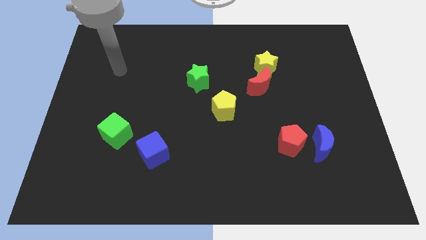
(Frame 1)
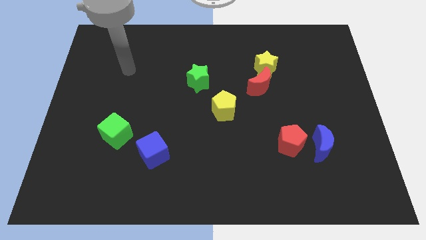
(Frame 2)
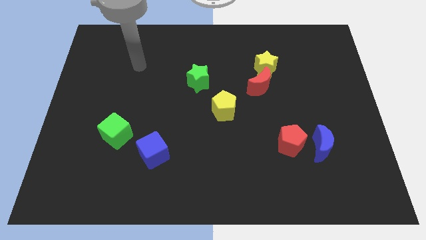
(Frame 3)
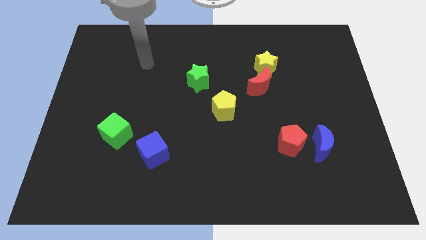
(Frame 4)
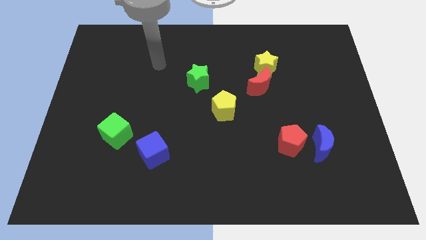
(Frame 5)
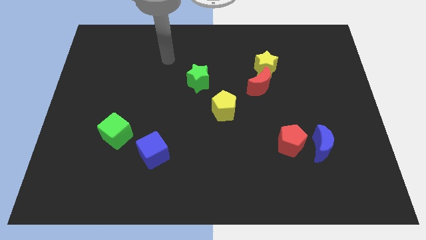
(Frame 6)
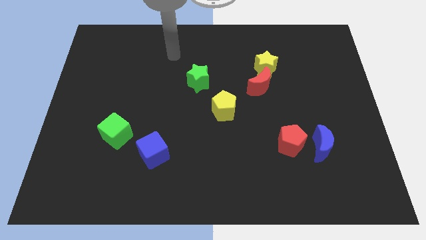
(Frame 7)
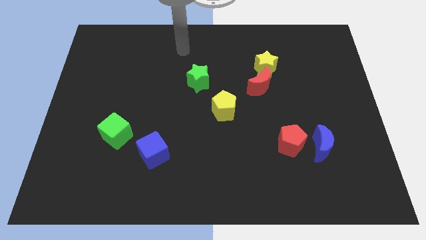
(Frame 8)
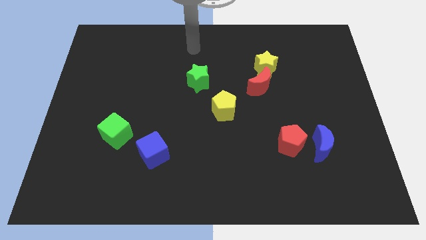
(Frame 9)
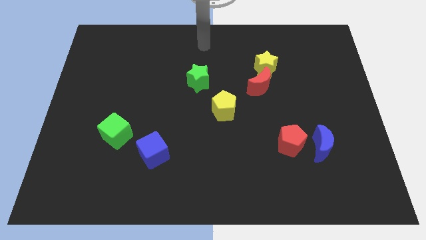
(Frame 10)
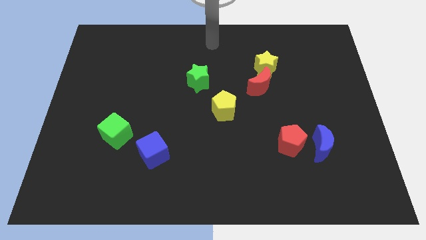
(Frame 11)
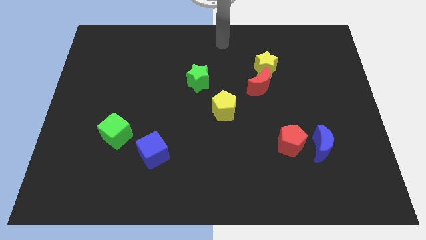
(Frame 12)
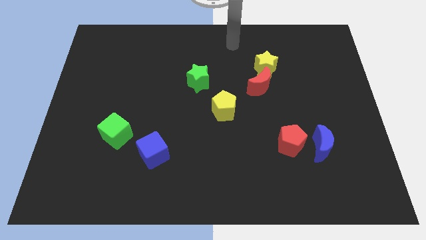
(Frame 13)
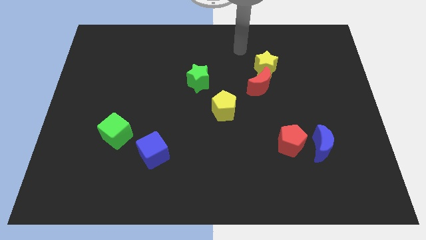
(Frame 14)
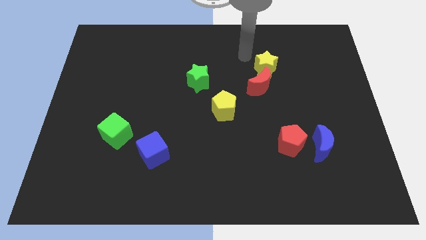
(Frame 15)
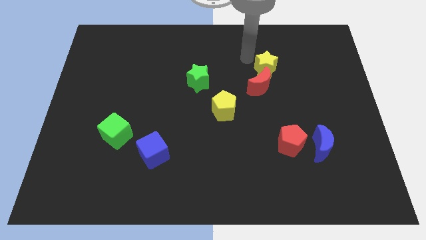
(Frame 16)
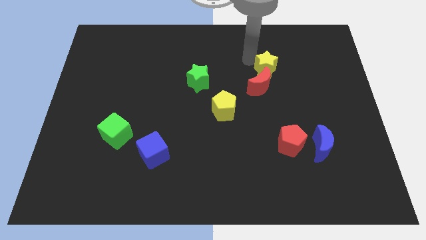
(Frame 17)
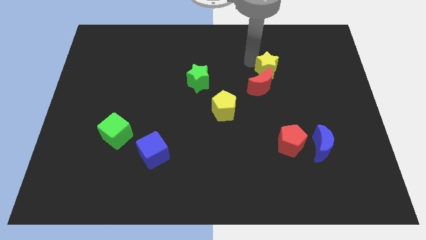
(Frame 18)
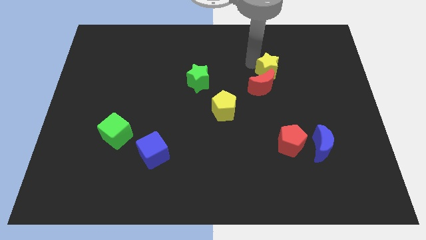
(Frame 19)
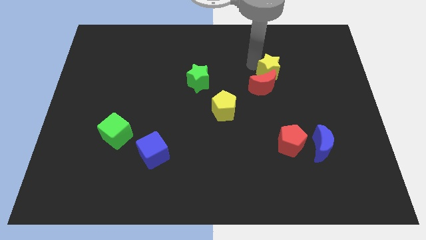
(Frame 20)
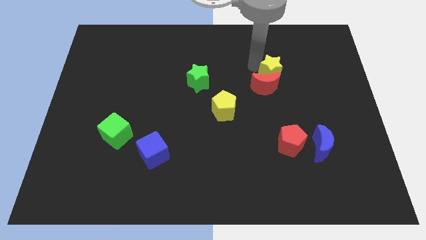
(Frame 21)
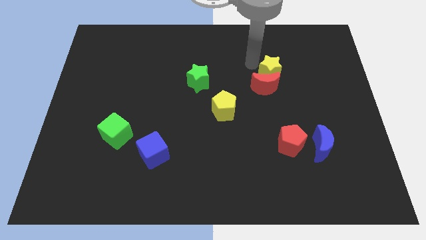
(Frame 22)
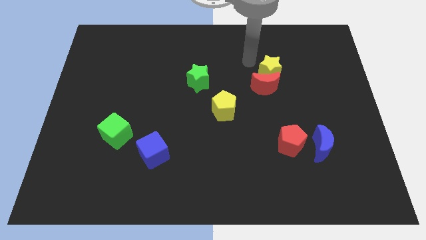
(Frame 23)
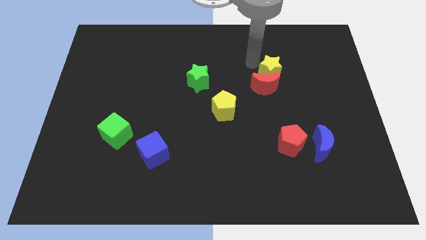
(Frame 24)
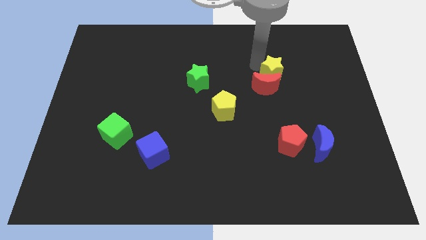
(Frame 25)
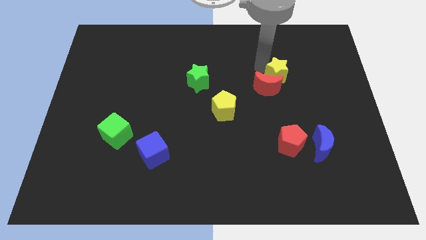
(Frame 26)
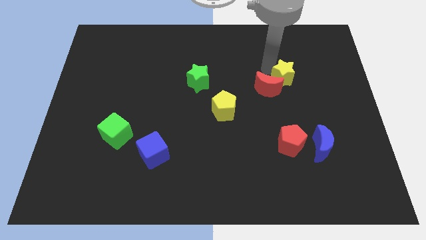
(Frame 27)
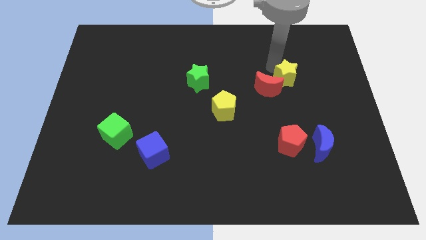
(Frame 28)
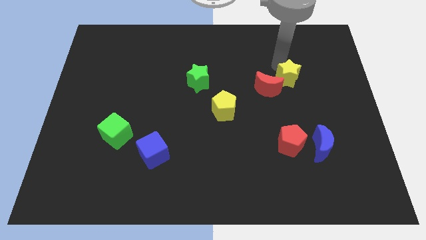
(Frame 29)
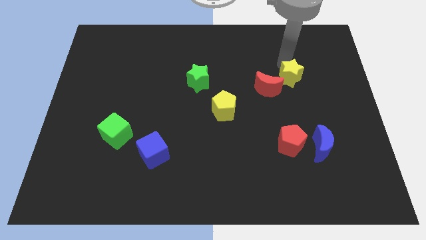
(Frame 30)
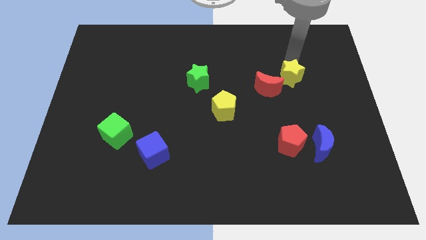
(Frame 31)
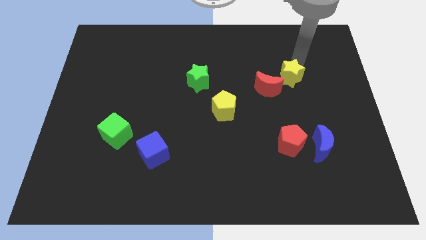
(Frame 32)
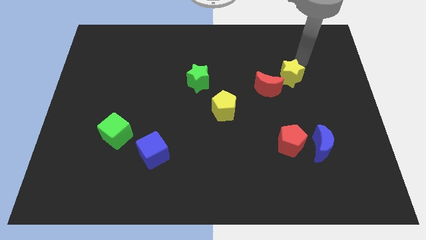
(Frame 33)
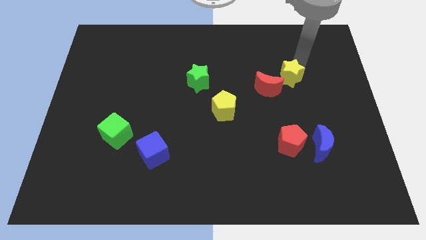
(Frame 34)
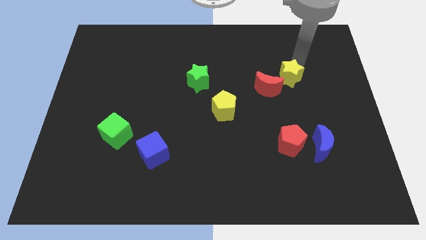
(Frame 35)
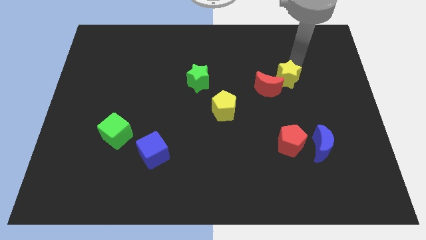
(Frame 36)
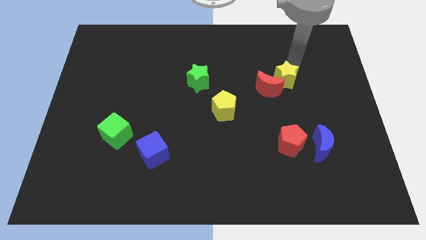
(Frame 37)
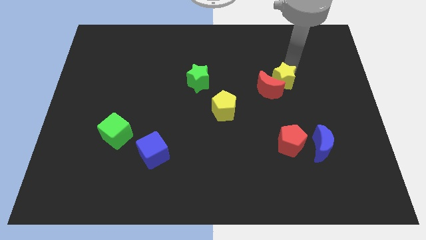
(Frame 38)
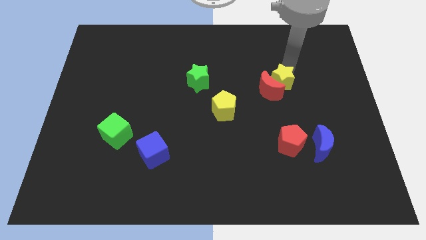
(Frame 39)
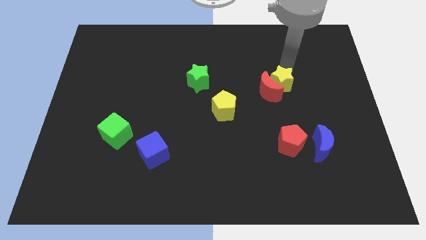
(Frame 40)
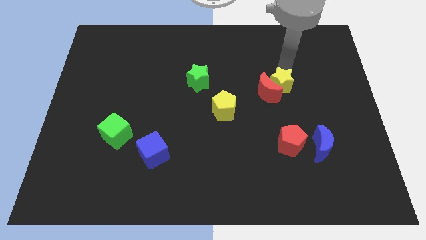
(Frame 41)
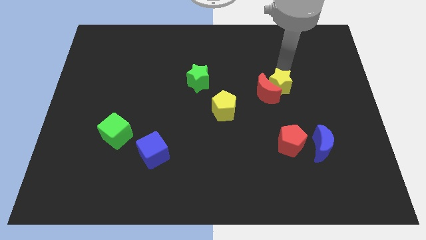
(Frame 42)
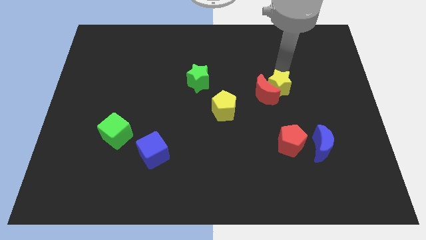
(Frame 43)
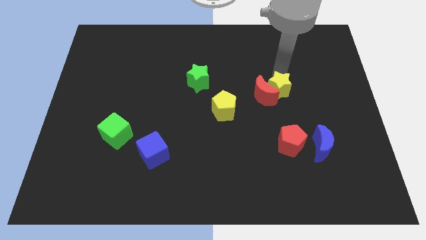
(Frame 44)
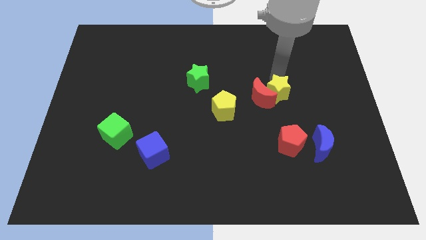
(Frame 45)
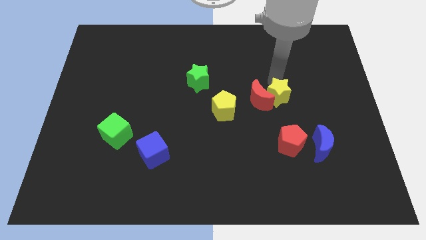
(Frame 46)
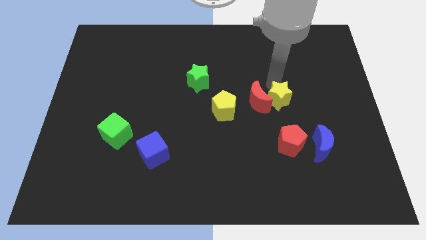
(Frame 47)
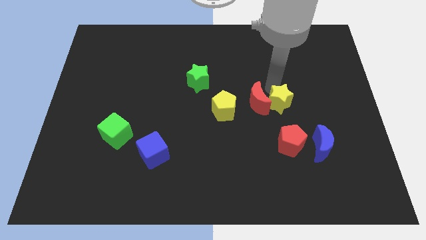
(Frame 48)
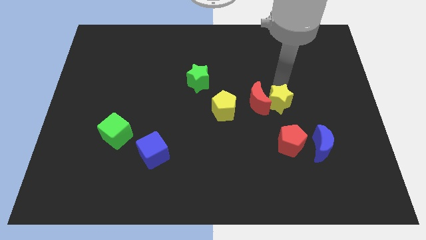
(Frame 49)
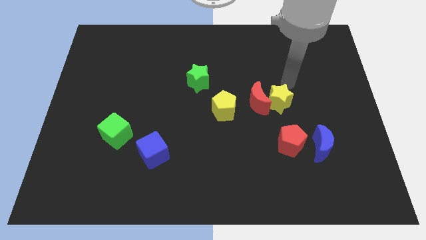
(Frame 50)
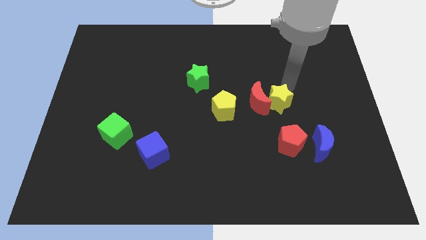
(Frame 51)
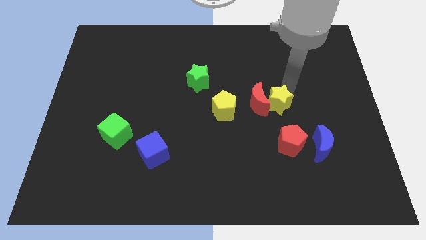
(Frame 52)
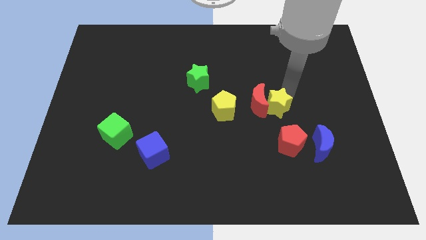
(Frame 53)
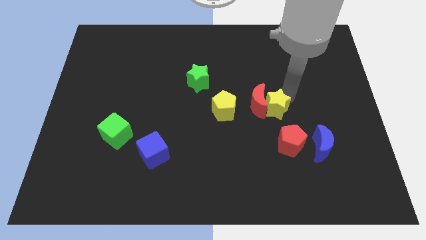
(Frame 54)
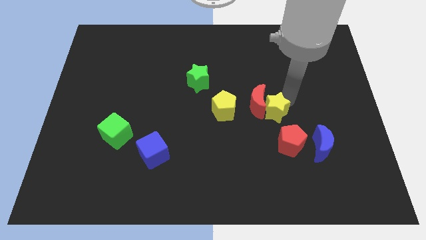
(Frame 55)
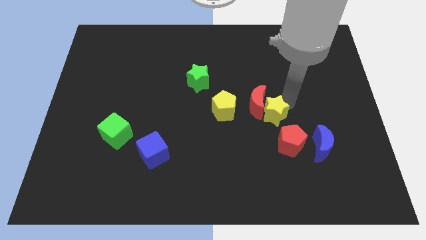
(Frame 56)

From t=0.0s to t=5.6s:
slide the yellow star below the red moon

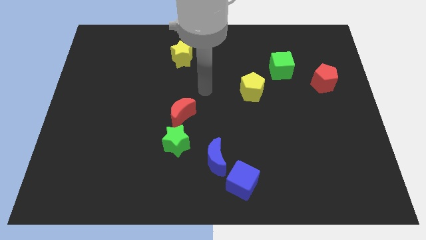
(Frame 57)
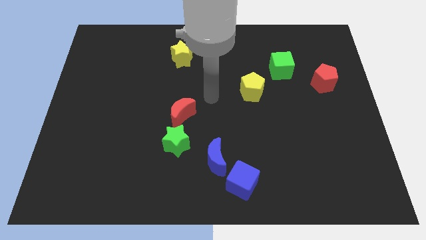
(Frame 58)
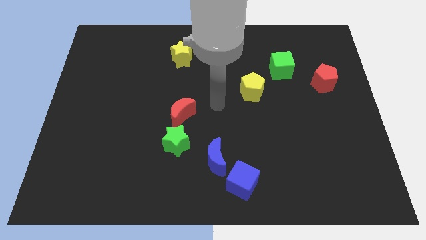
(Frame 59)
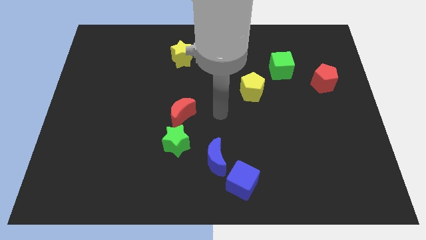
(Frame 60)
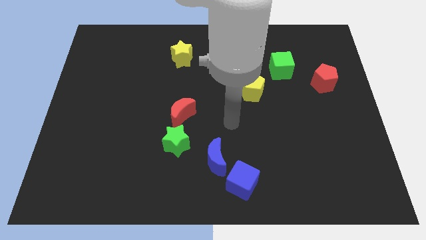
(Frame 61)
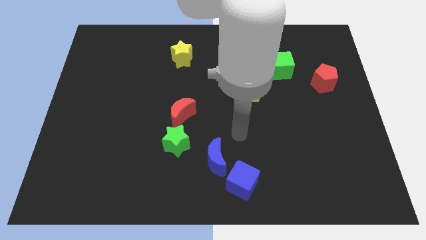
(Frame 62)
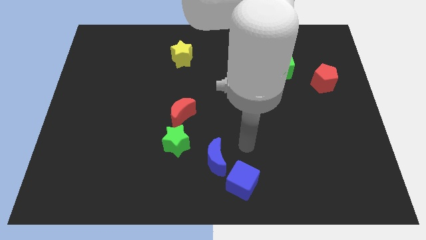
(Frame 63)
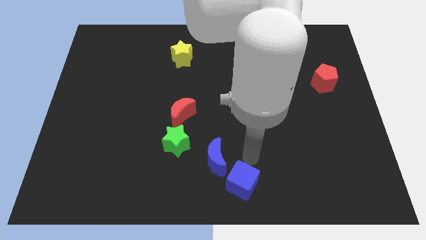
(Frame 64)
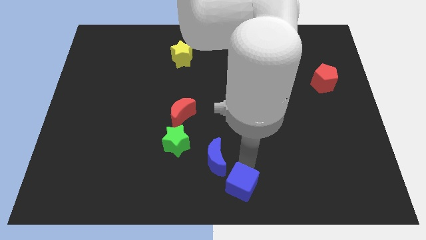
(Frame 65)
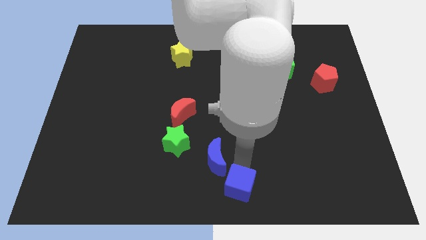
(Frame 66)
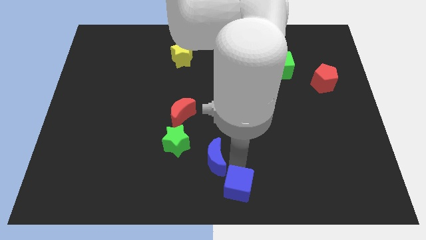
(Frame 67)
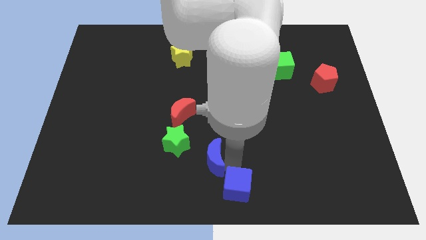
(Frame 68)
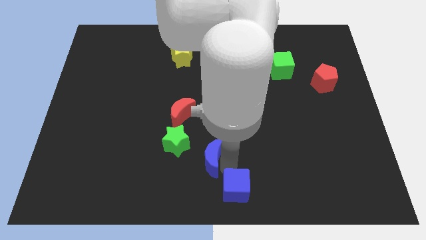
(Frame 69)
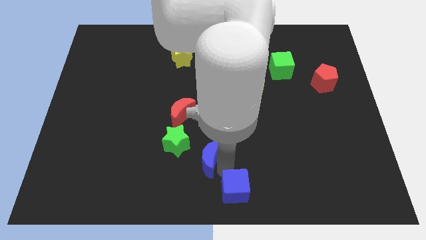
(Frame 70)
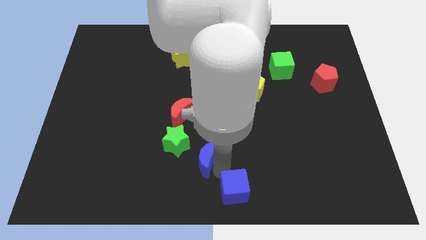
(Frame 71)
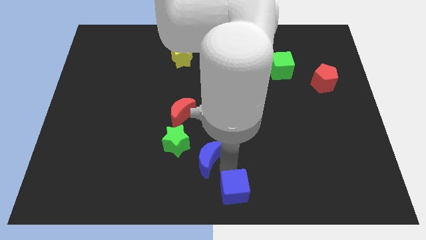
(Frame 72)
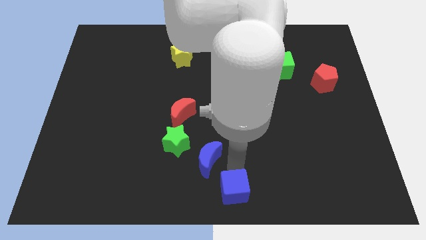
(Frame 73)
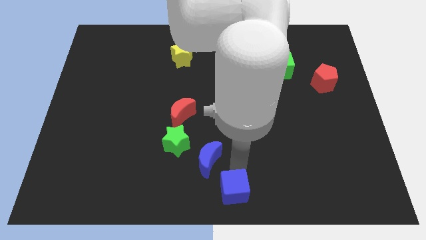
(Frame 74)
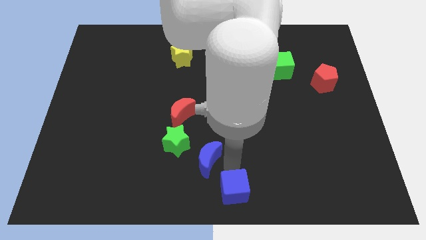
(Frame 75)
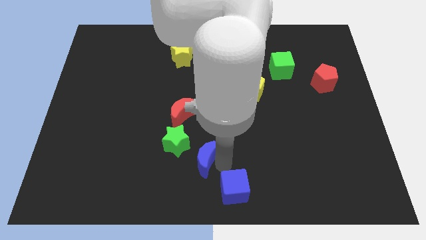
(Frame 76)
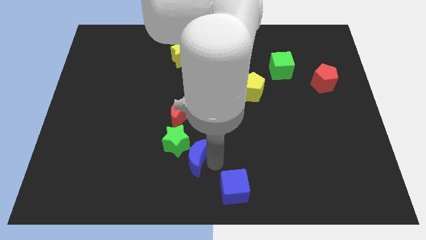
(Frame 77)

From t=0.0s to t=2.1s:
slide the blue moon below the red moon

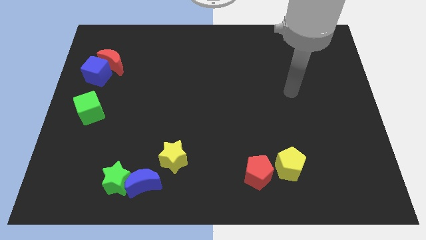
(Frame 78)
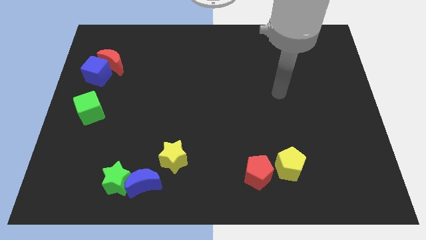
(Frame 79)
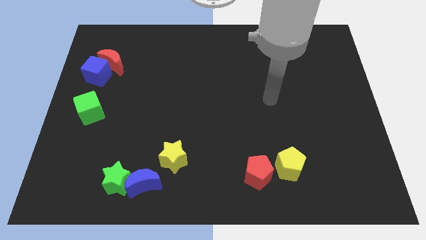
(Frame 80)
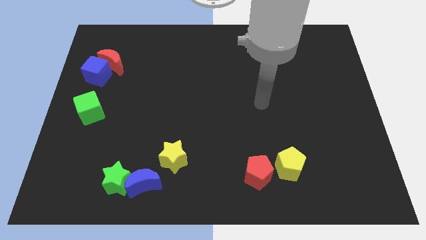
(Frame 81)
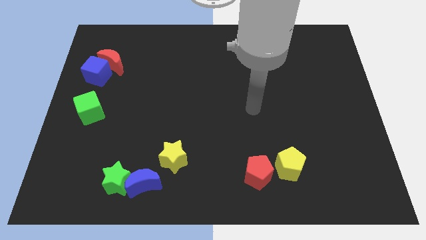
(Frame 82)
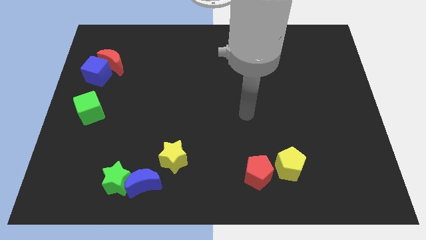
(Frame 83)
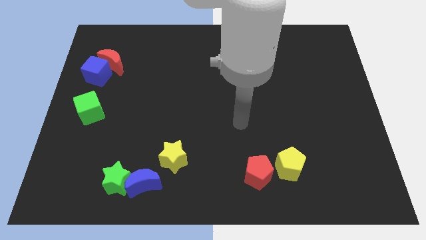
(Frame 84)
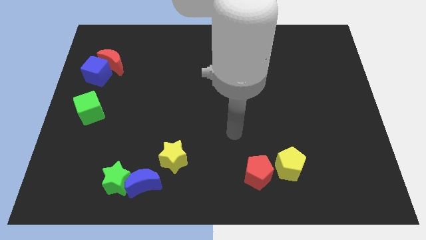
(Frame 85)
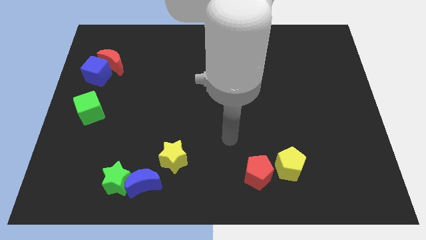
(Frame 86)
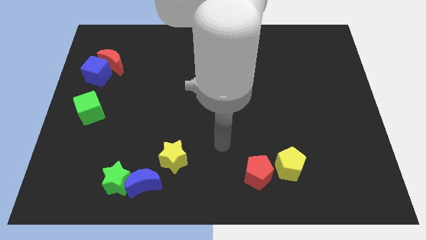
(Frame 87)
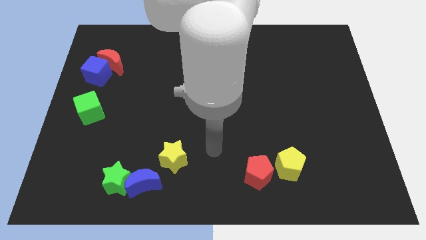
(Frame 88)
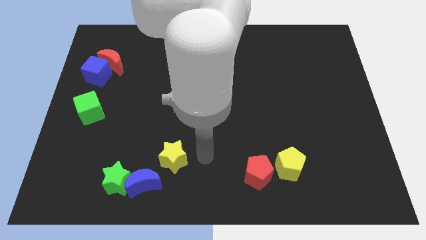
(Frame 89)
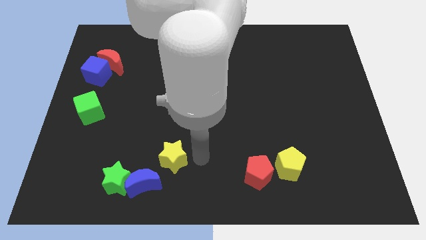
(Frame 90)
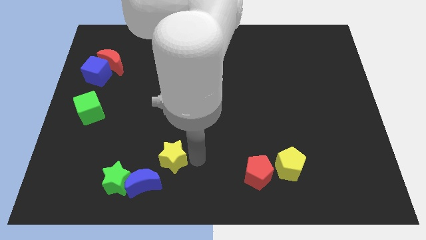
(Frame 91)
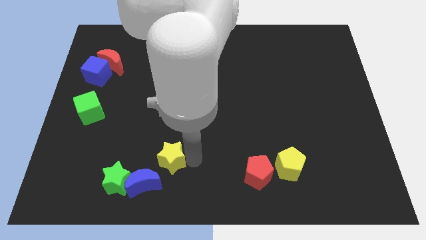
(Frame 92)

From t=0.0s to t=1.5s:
put the yellow star diagonally up and to the right of the green star
